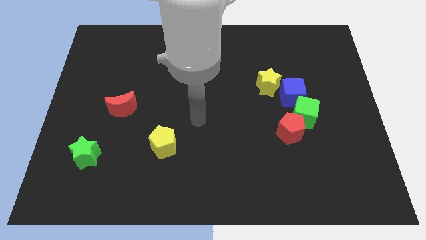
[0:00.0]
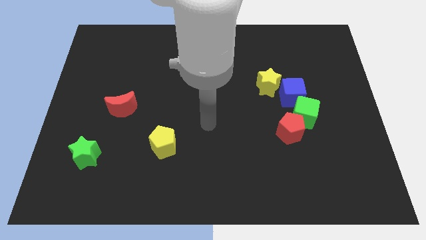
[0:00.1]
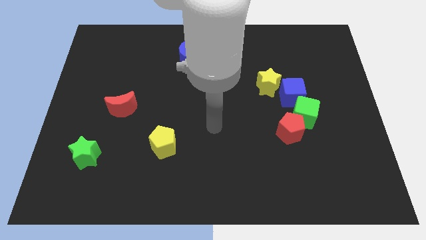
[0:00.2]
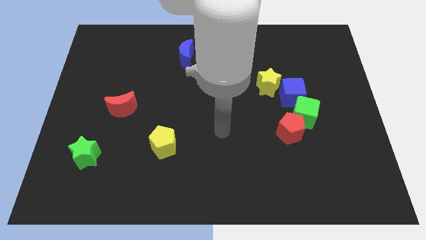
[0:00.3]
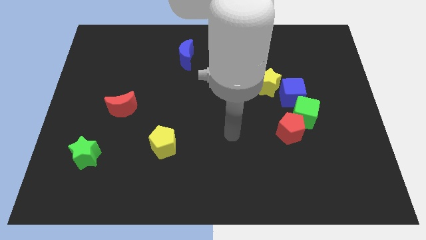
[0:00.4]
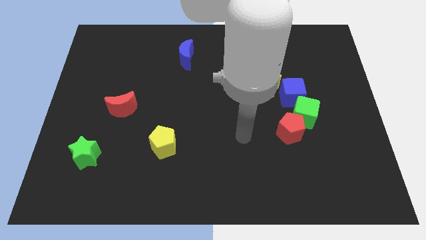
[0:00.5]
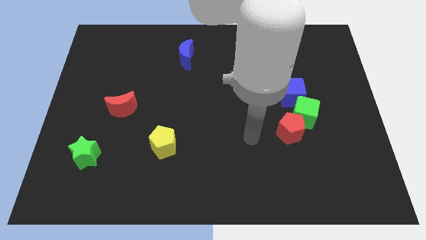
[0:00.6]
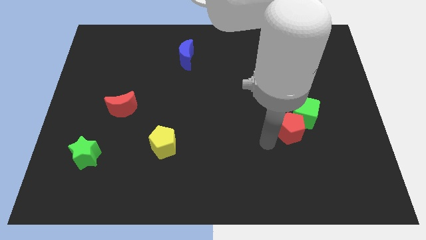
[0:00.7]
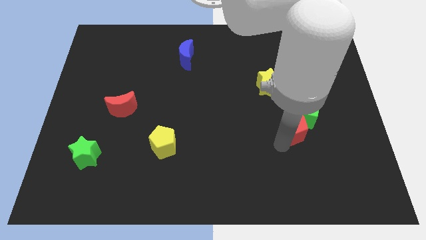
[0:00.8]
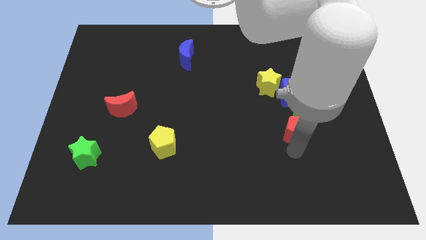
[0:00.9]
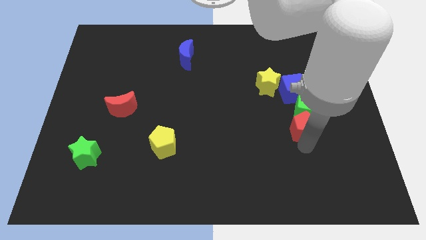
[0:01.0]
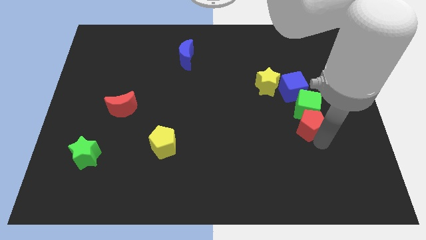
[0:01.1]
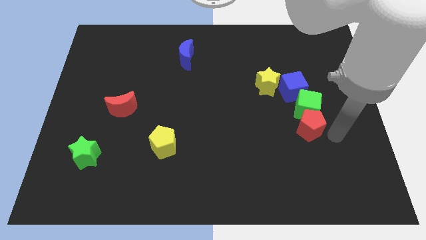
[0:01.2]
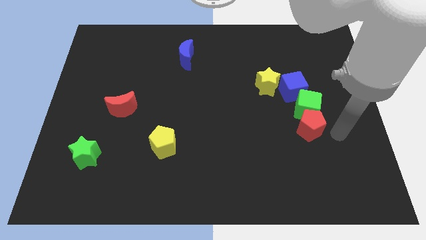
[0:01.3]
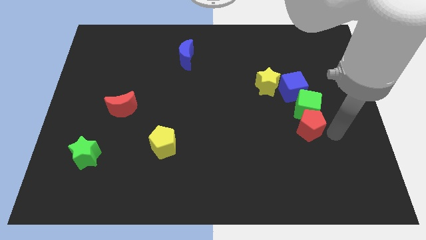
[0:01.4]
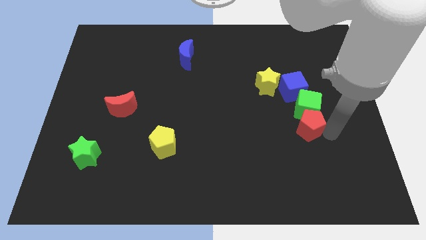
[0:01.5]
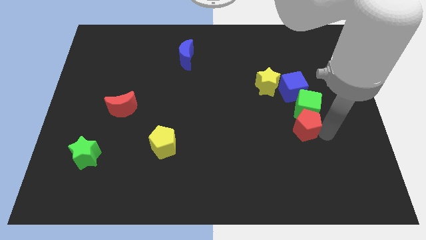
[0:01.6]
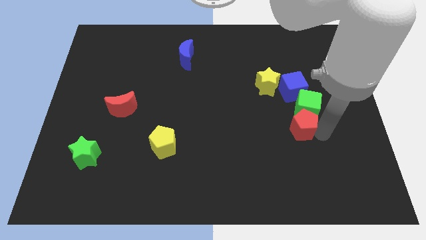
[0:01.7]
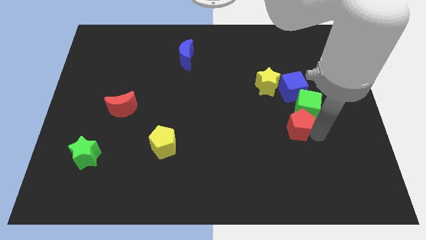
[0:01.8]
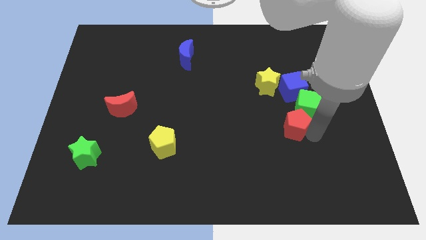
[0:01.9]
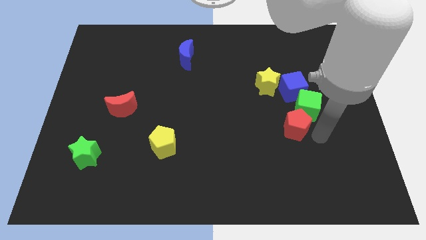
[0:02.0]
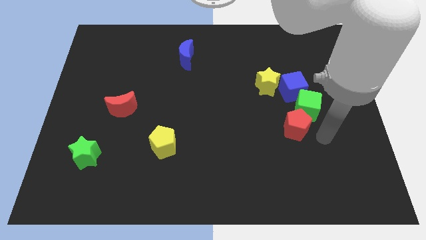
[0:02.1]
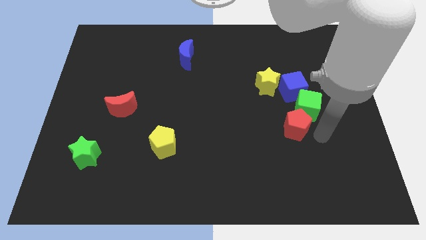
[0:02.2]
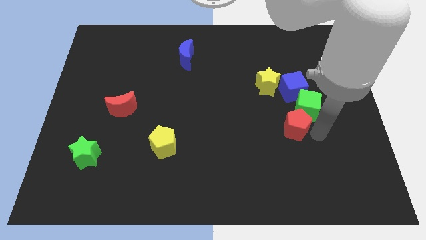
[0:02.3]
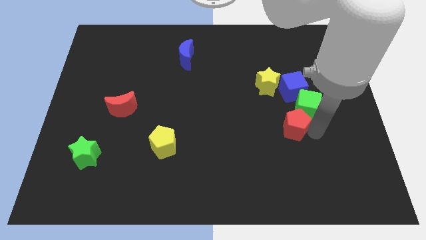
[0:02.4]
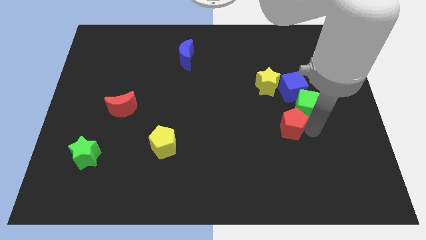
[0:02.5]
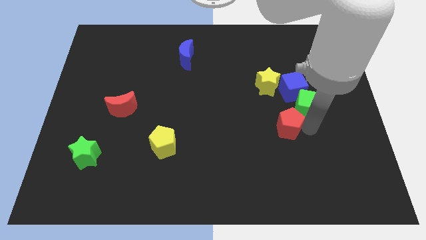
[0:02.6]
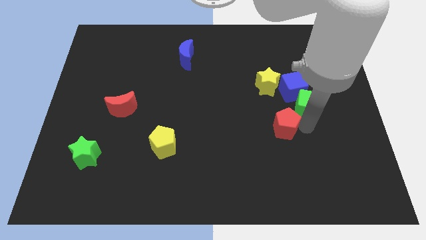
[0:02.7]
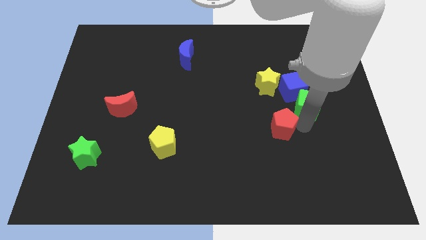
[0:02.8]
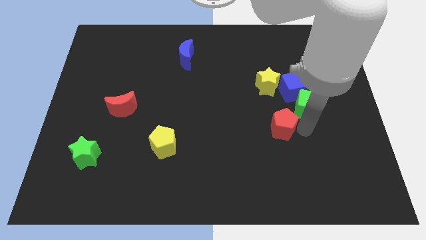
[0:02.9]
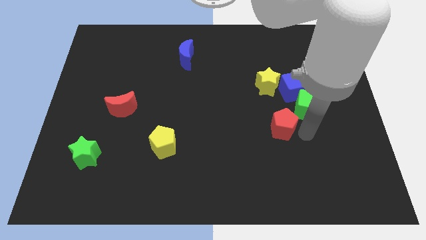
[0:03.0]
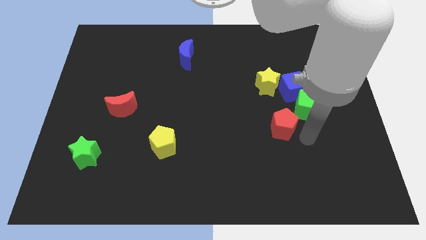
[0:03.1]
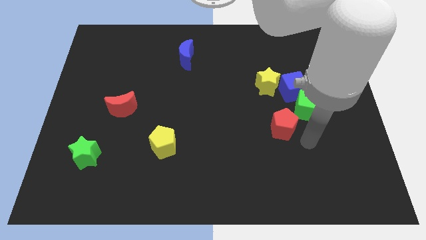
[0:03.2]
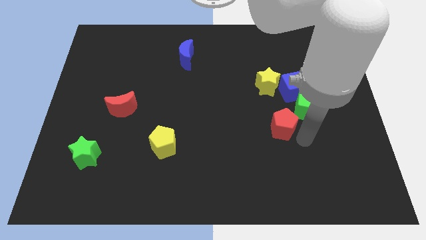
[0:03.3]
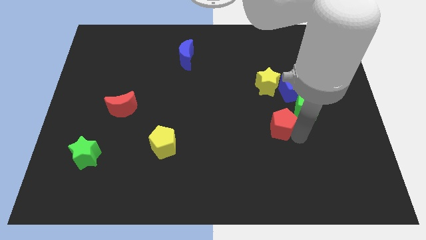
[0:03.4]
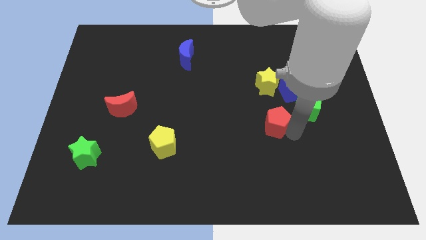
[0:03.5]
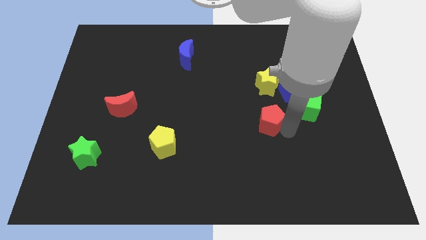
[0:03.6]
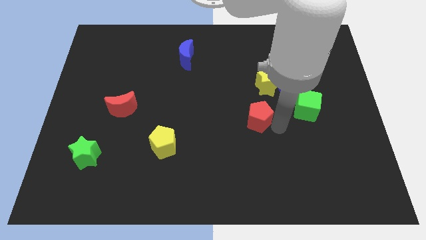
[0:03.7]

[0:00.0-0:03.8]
slide the red pentagon upwards and then to the left a little

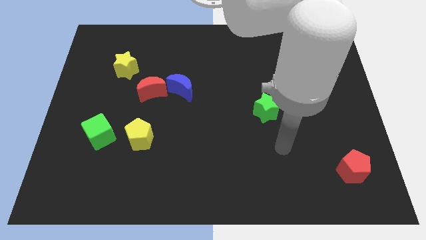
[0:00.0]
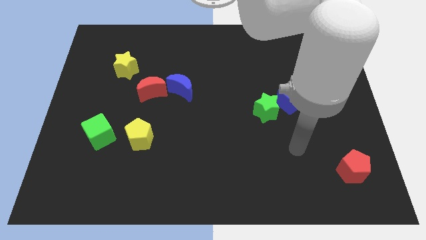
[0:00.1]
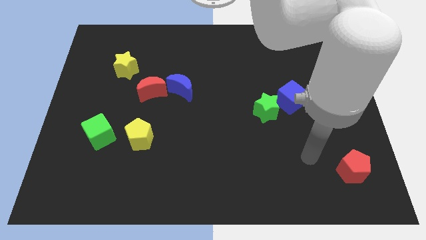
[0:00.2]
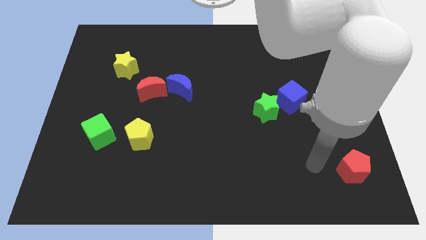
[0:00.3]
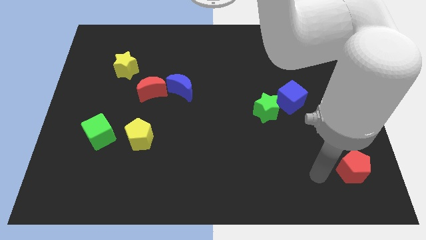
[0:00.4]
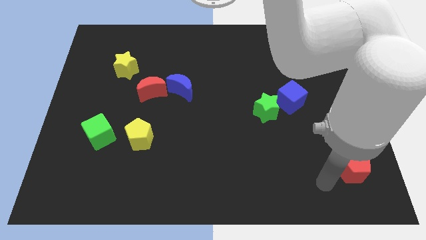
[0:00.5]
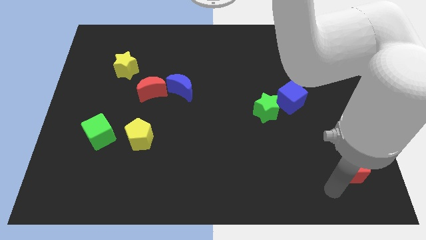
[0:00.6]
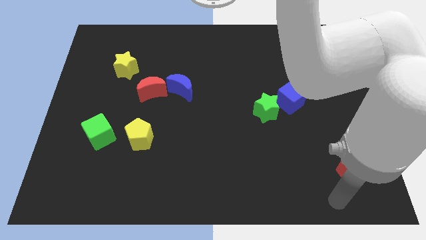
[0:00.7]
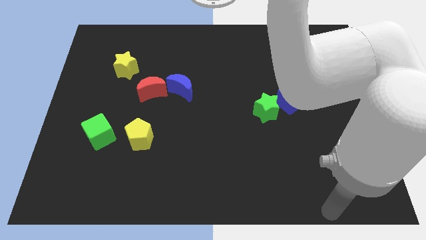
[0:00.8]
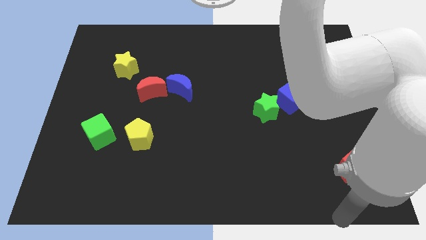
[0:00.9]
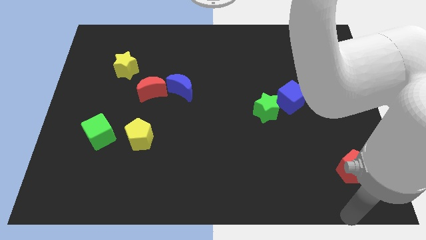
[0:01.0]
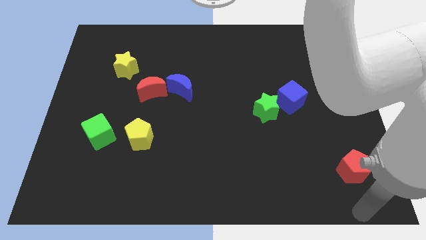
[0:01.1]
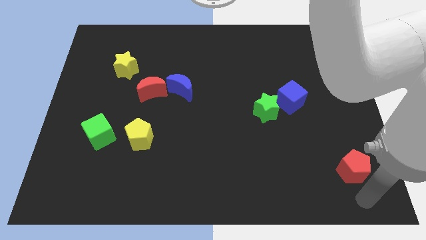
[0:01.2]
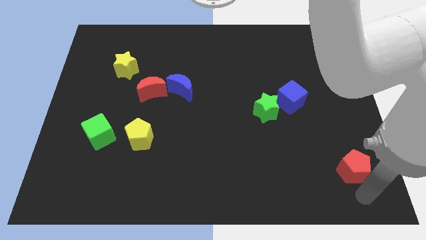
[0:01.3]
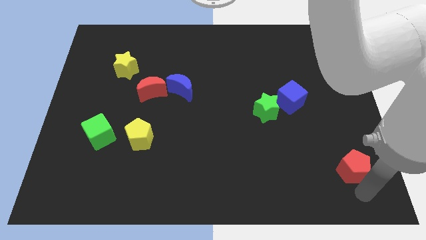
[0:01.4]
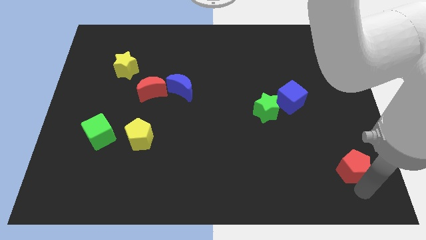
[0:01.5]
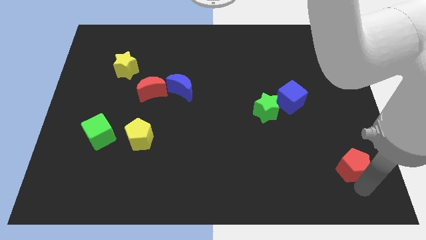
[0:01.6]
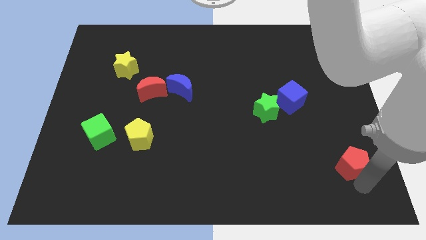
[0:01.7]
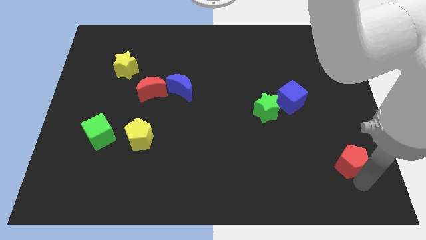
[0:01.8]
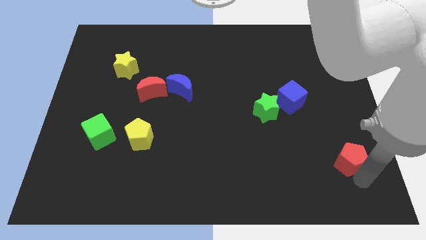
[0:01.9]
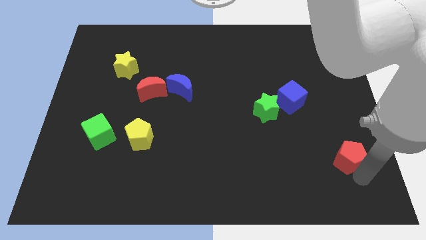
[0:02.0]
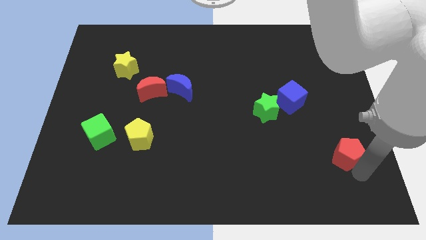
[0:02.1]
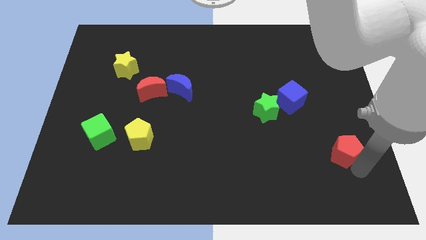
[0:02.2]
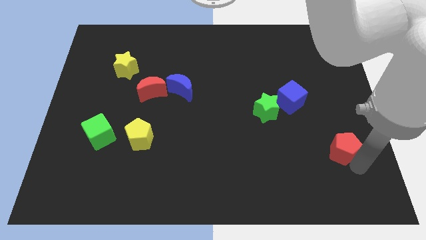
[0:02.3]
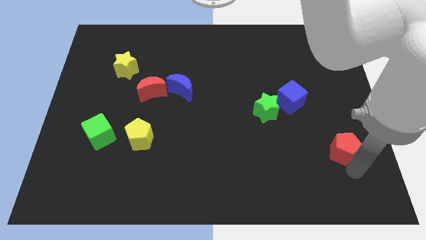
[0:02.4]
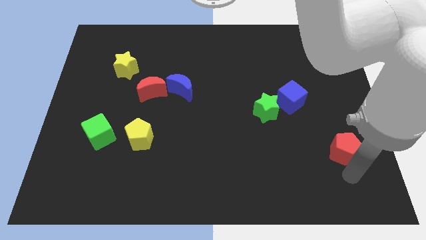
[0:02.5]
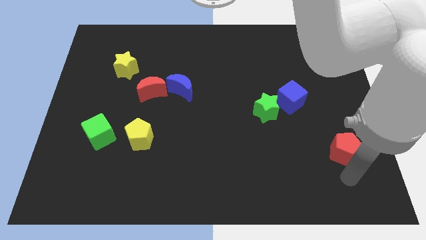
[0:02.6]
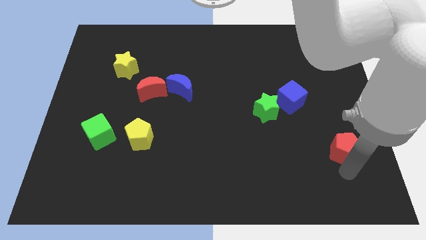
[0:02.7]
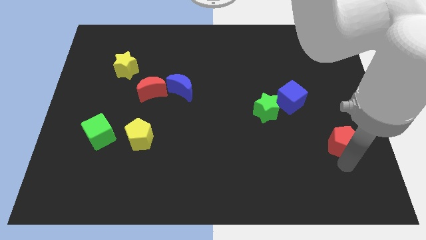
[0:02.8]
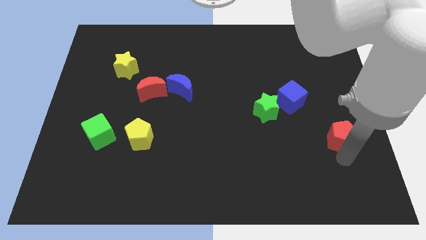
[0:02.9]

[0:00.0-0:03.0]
slide the red pentagon upwards slightly

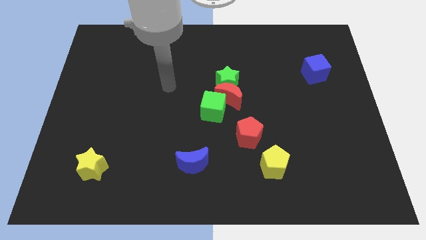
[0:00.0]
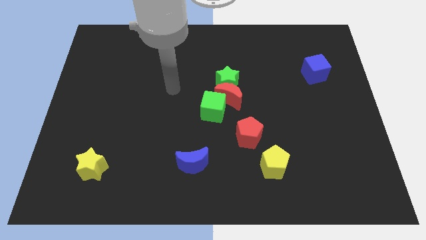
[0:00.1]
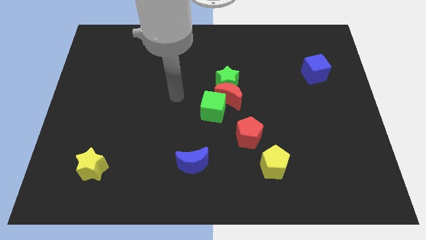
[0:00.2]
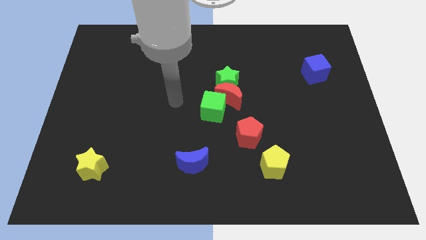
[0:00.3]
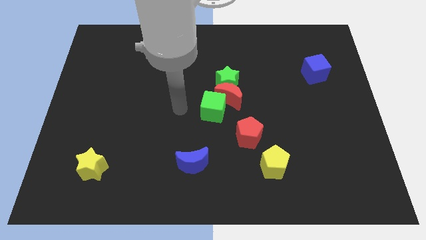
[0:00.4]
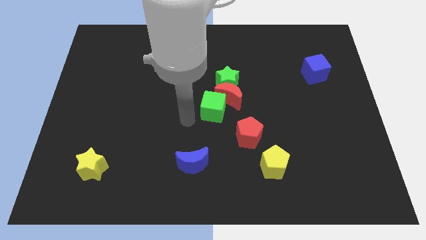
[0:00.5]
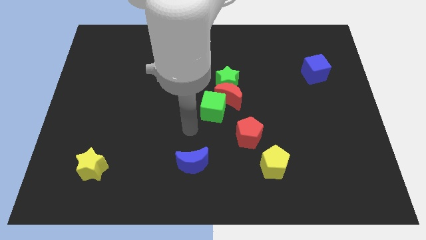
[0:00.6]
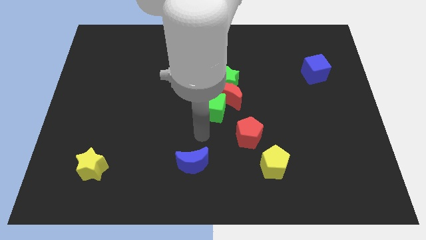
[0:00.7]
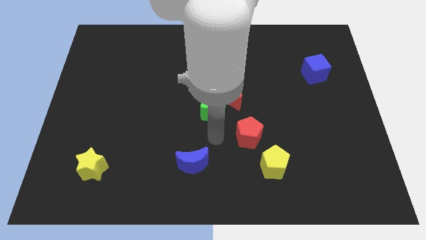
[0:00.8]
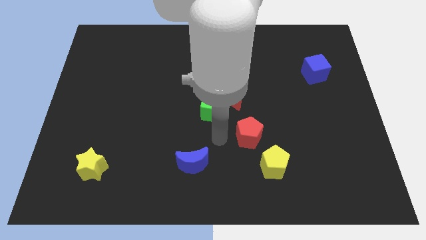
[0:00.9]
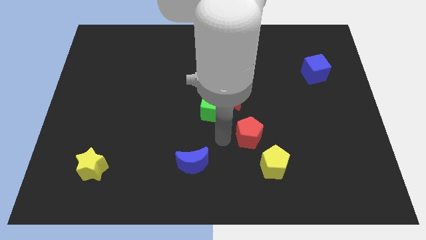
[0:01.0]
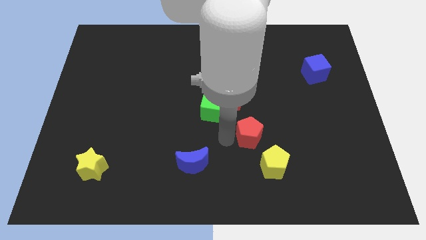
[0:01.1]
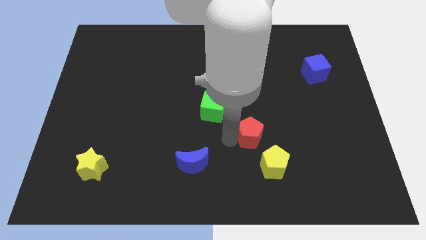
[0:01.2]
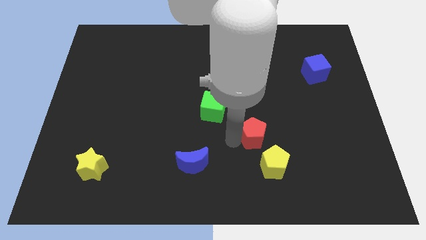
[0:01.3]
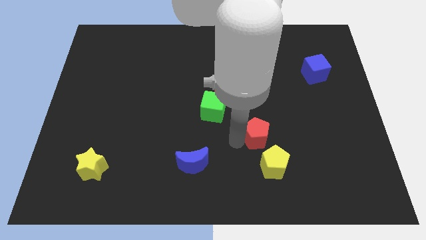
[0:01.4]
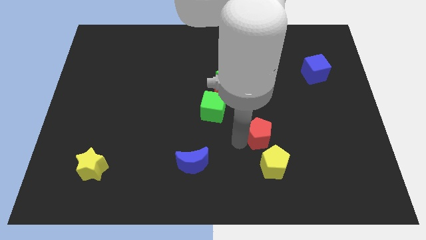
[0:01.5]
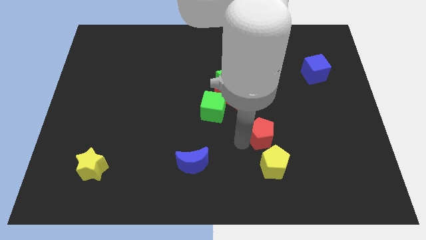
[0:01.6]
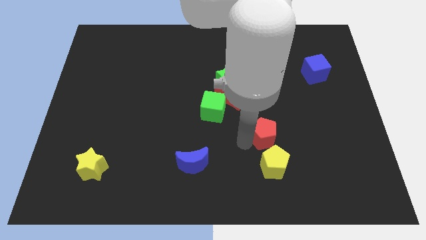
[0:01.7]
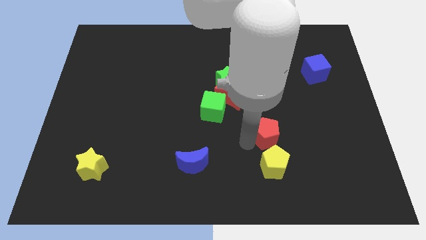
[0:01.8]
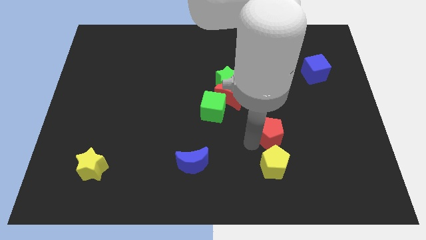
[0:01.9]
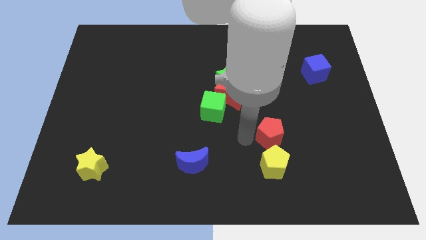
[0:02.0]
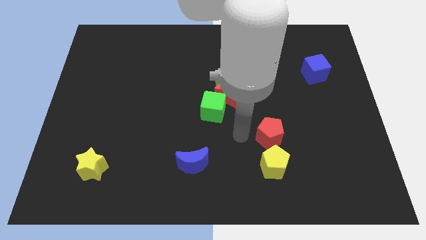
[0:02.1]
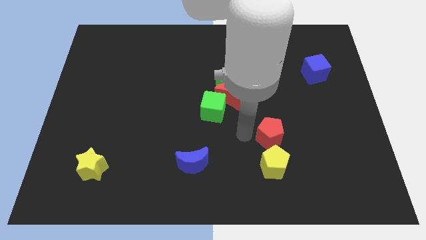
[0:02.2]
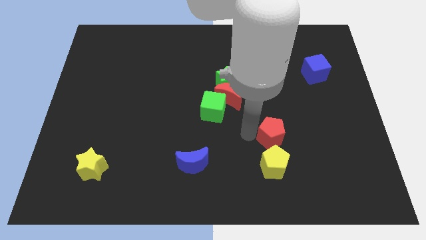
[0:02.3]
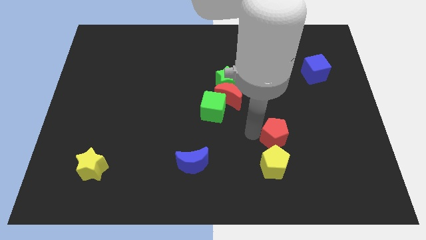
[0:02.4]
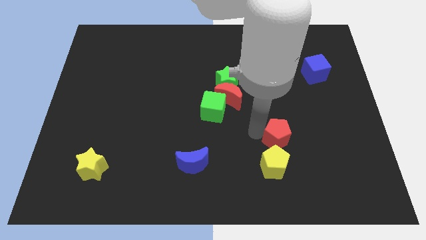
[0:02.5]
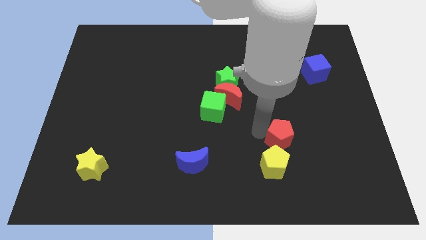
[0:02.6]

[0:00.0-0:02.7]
move the red pentagon a little to the right
